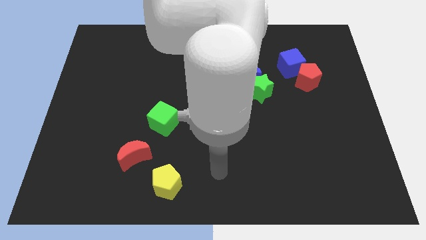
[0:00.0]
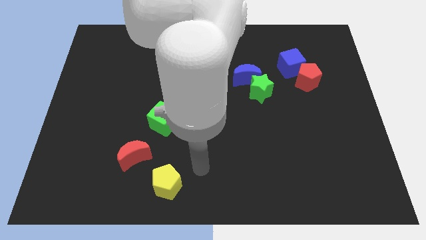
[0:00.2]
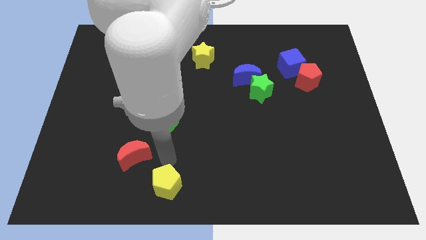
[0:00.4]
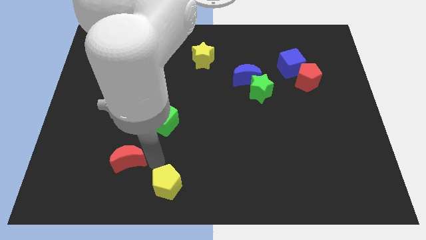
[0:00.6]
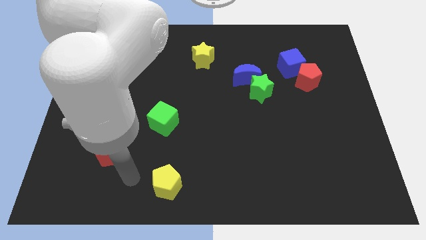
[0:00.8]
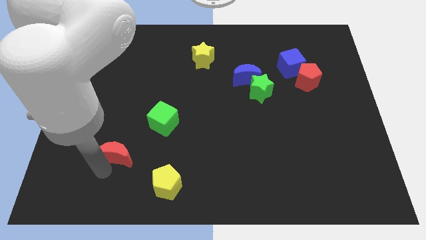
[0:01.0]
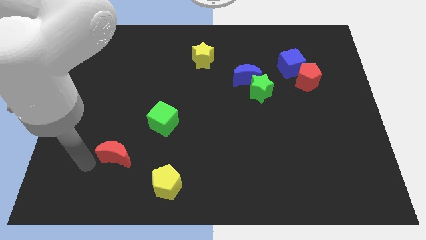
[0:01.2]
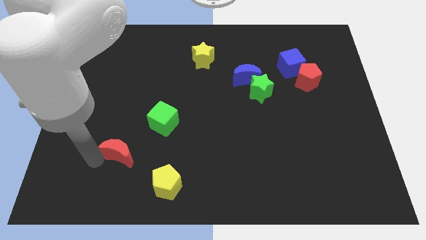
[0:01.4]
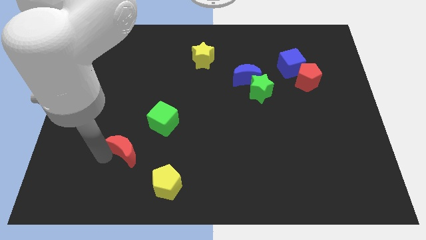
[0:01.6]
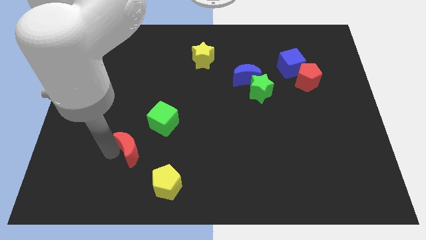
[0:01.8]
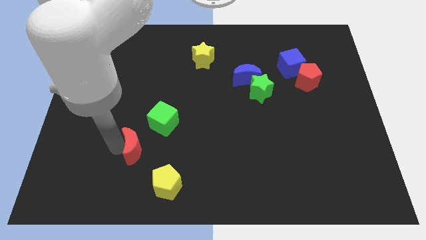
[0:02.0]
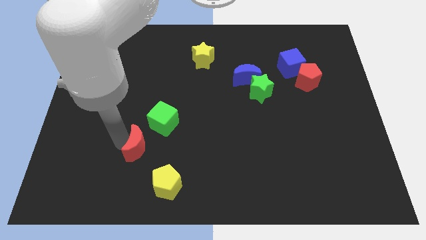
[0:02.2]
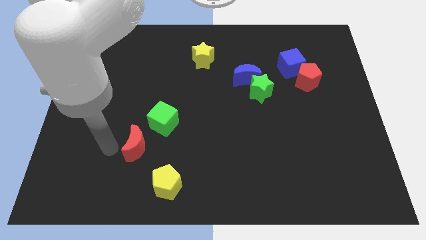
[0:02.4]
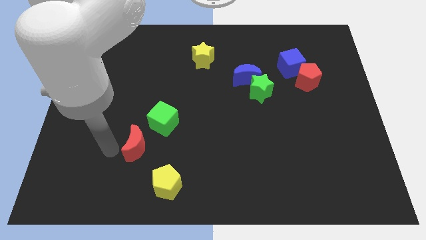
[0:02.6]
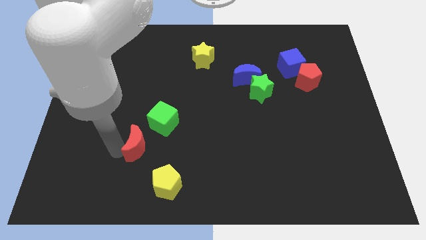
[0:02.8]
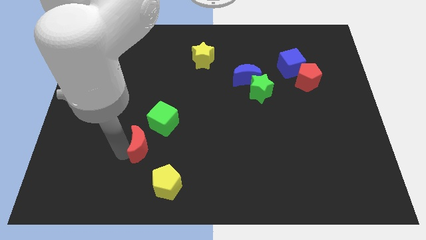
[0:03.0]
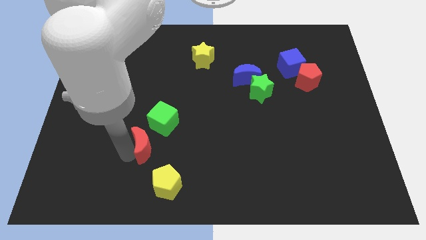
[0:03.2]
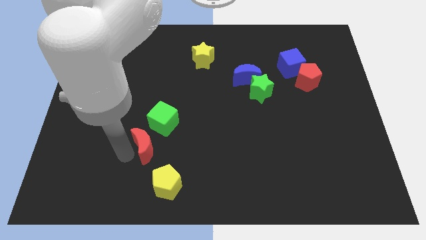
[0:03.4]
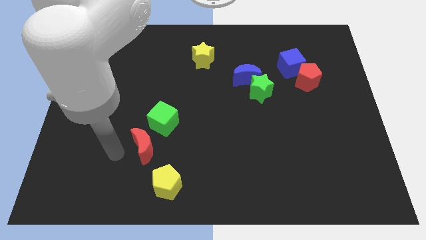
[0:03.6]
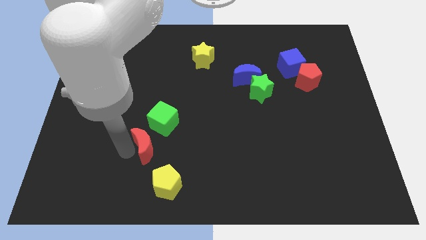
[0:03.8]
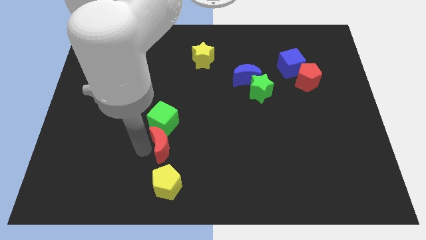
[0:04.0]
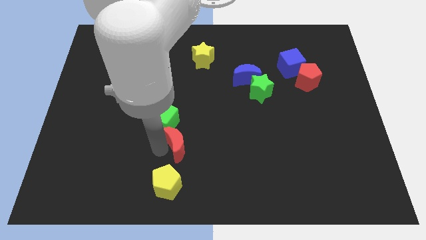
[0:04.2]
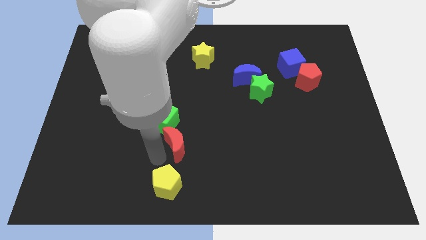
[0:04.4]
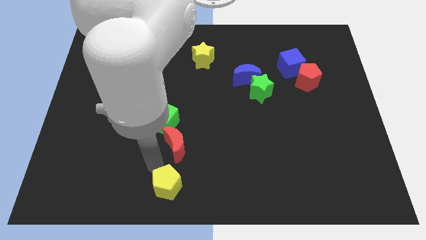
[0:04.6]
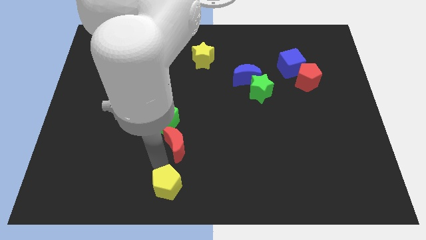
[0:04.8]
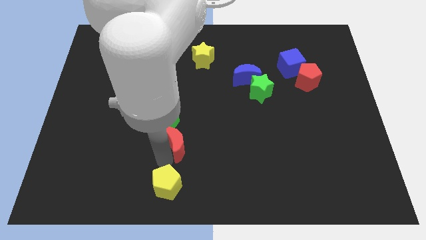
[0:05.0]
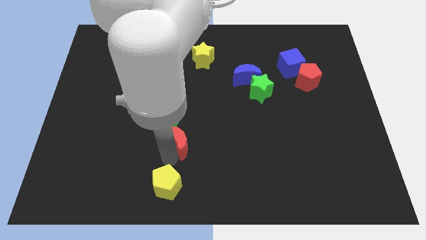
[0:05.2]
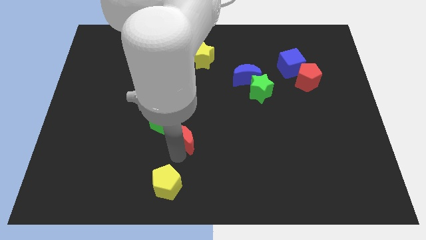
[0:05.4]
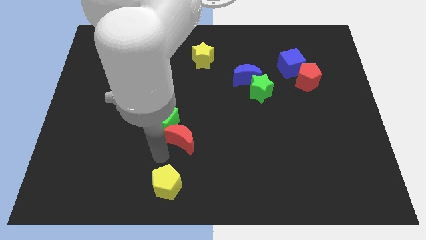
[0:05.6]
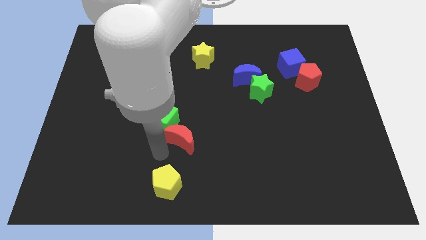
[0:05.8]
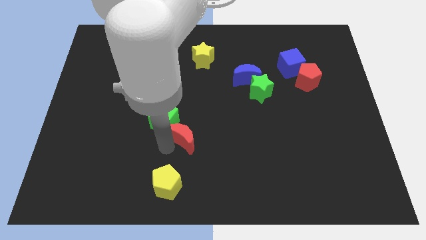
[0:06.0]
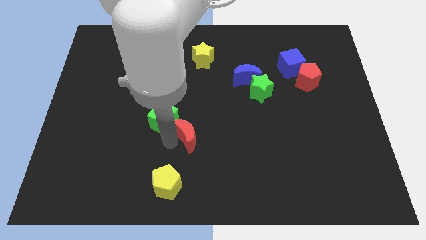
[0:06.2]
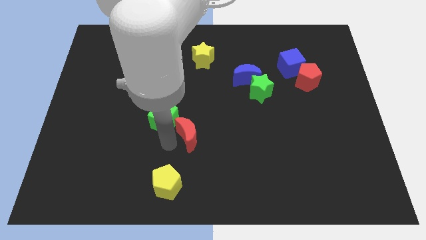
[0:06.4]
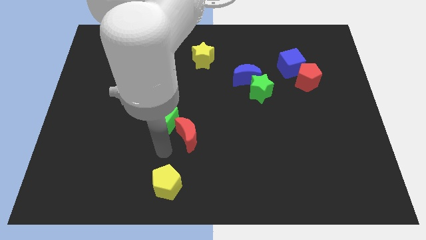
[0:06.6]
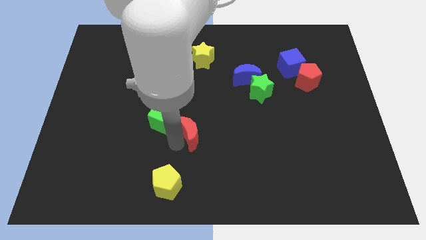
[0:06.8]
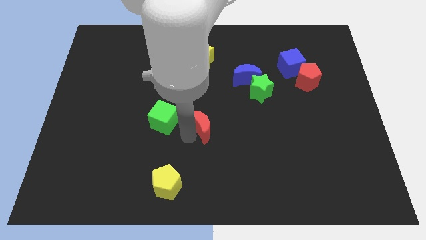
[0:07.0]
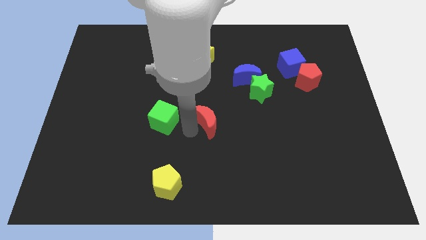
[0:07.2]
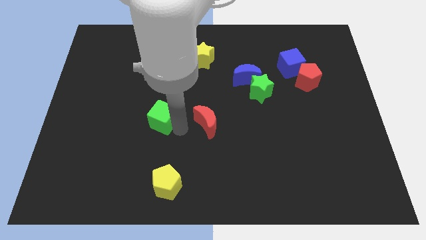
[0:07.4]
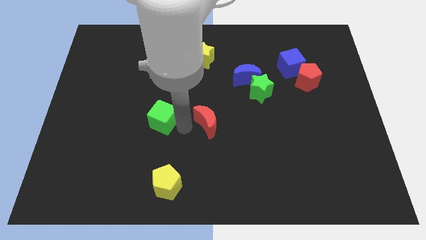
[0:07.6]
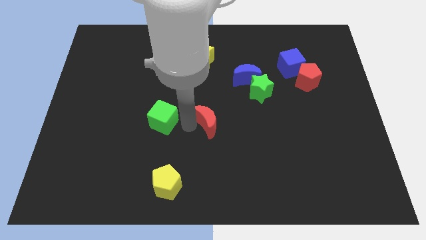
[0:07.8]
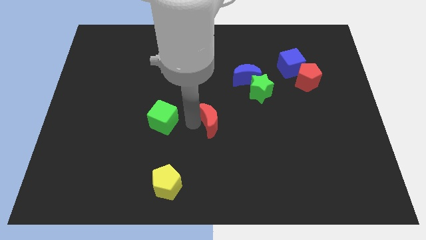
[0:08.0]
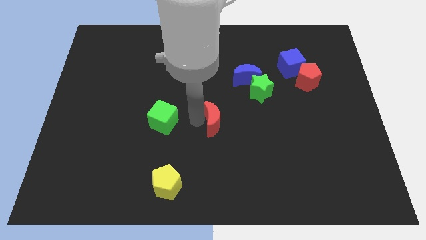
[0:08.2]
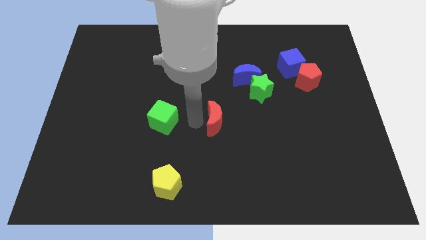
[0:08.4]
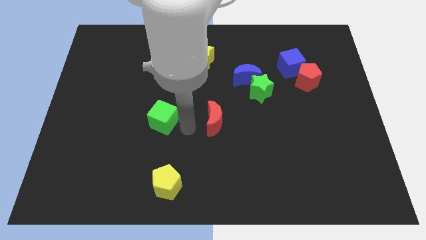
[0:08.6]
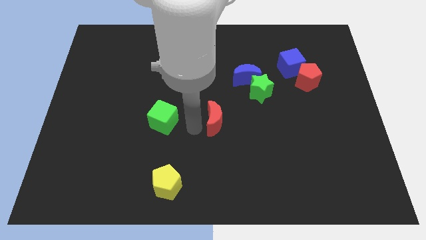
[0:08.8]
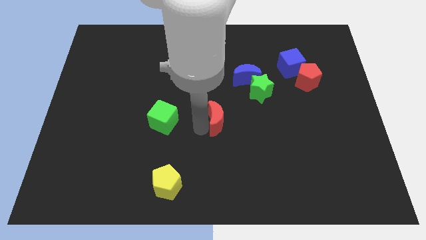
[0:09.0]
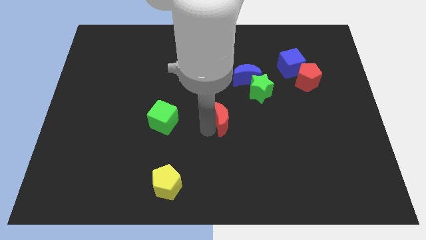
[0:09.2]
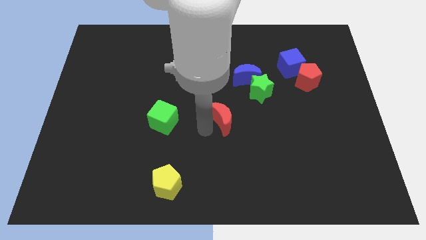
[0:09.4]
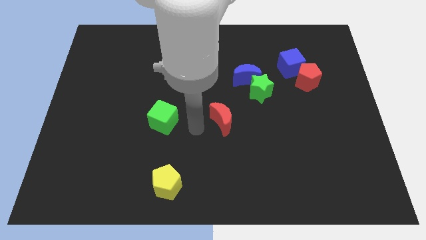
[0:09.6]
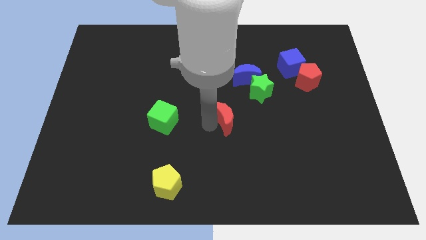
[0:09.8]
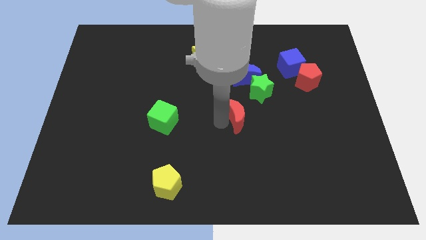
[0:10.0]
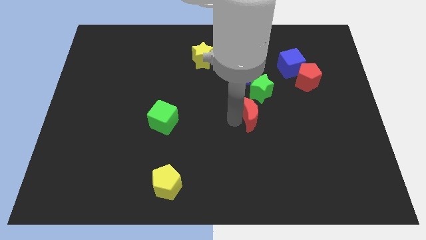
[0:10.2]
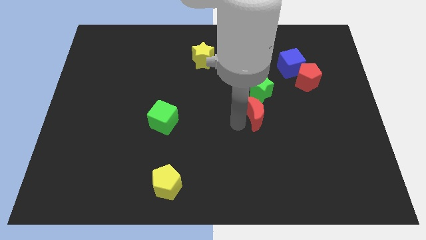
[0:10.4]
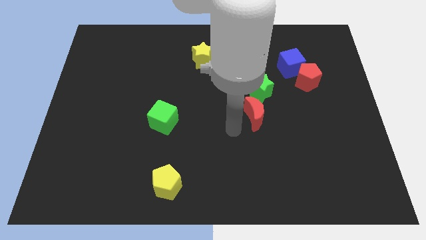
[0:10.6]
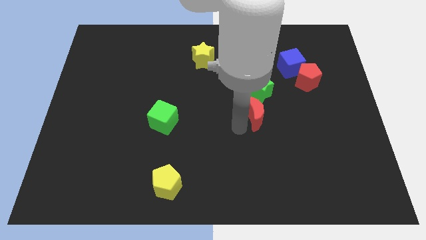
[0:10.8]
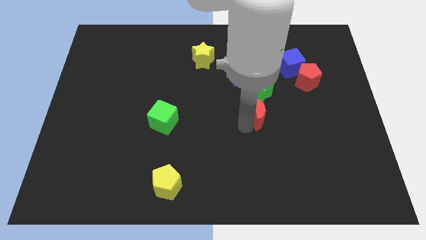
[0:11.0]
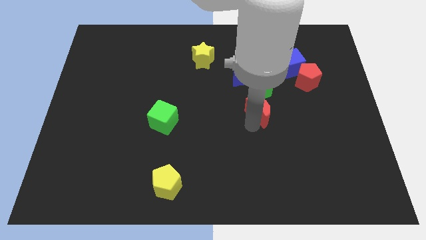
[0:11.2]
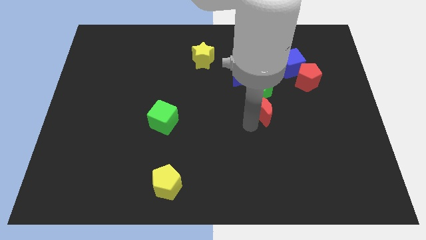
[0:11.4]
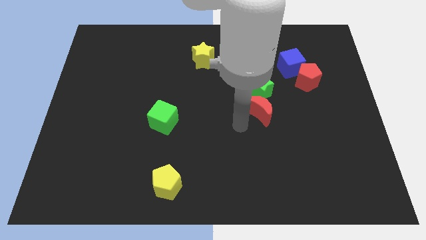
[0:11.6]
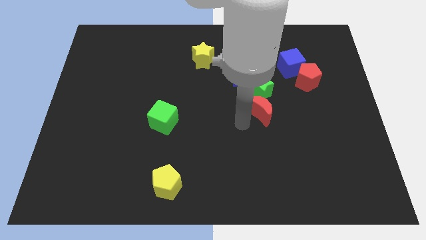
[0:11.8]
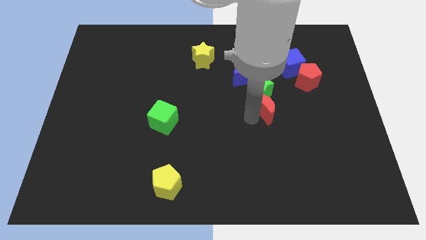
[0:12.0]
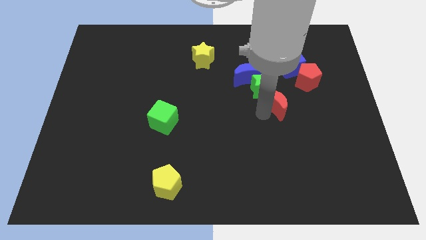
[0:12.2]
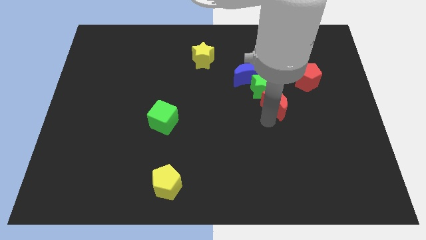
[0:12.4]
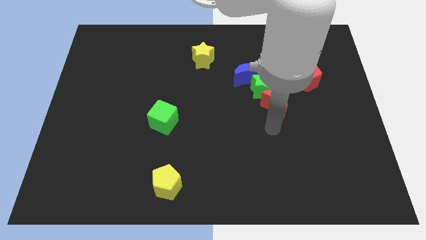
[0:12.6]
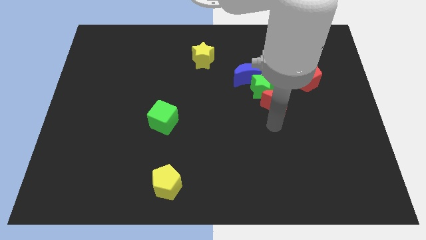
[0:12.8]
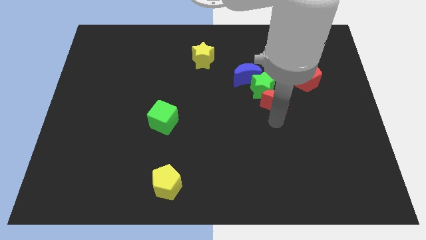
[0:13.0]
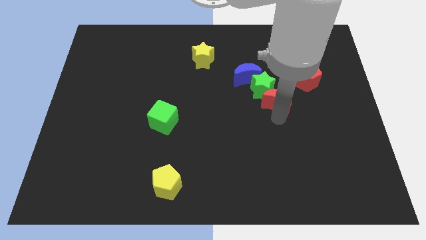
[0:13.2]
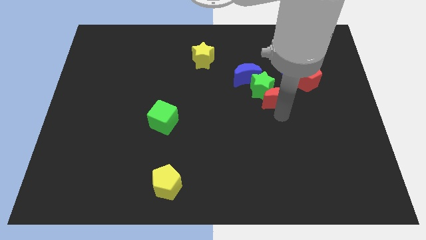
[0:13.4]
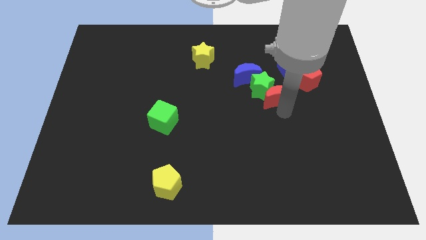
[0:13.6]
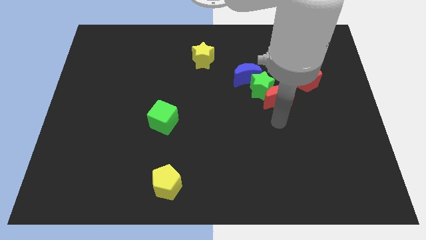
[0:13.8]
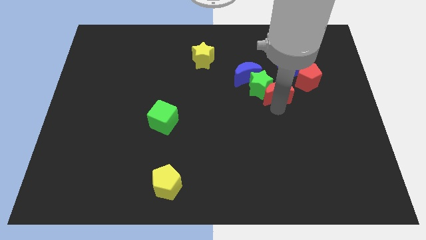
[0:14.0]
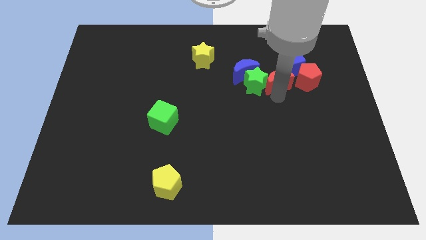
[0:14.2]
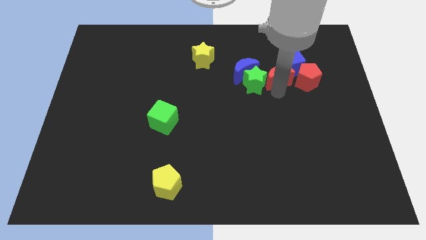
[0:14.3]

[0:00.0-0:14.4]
move the red moon to the blue cube
